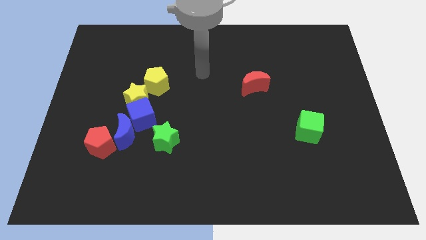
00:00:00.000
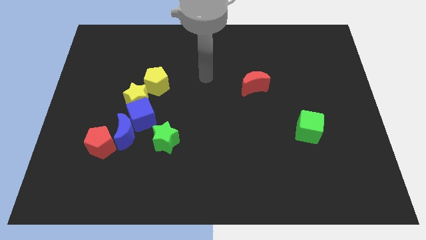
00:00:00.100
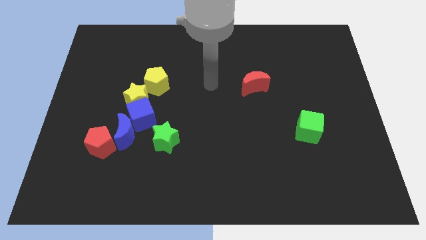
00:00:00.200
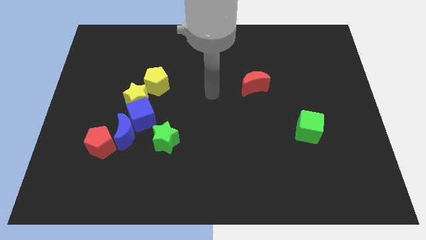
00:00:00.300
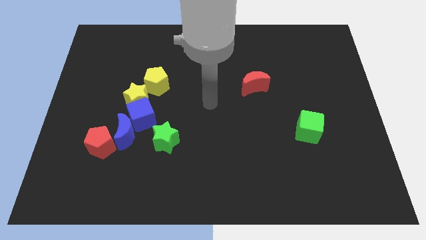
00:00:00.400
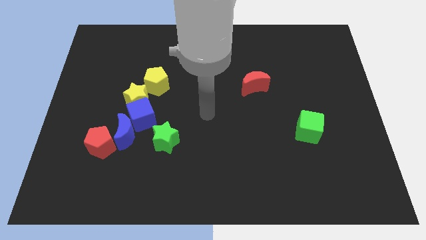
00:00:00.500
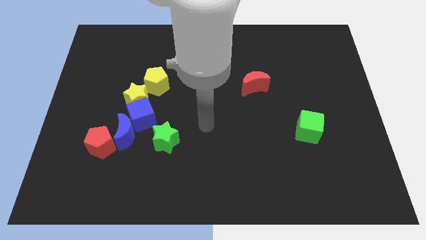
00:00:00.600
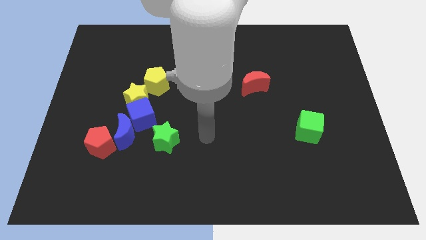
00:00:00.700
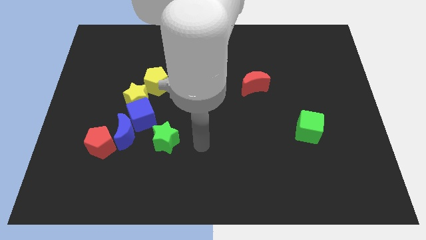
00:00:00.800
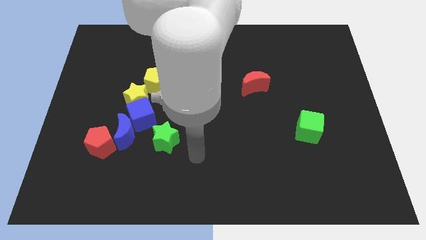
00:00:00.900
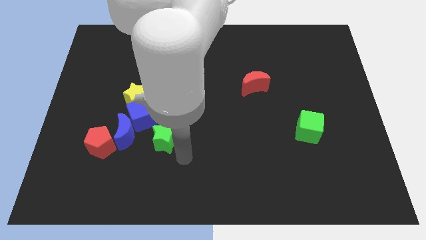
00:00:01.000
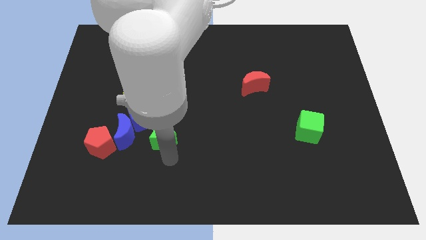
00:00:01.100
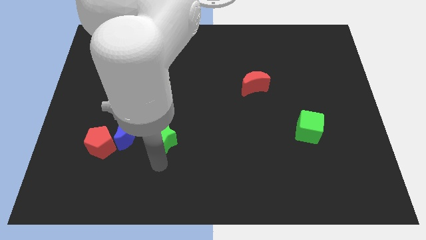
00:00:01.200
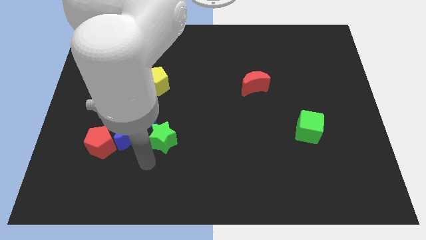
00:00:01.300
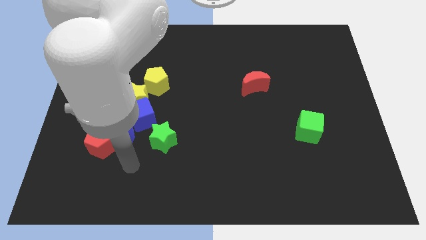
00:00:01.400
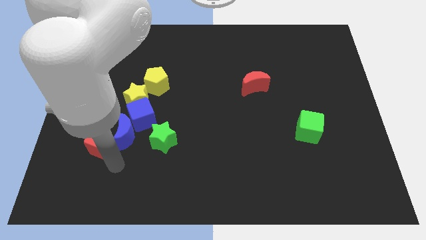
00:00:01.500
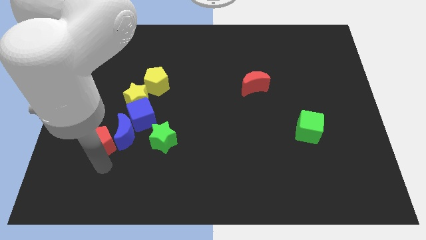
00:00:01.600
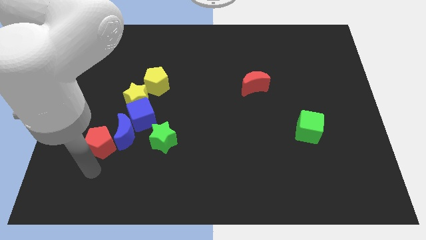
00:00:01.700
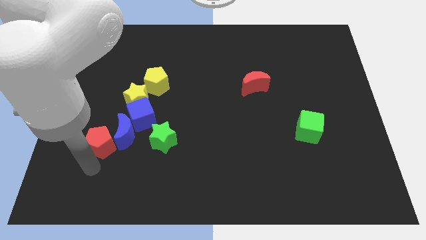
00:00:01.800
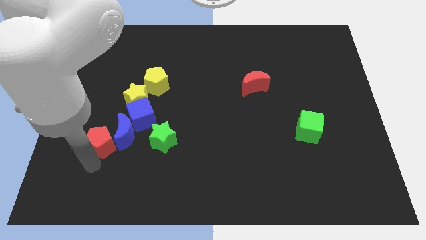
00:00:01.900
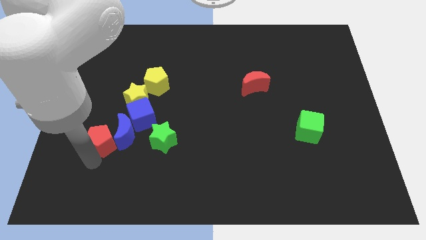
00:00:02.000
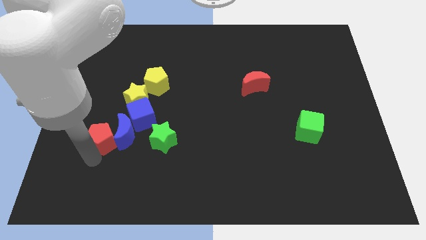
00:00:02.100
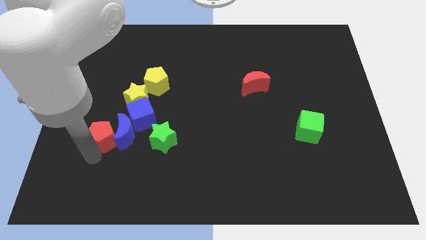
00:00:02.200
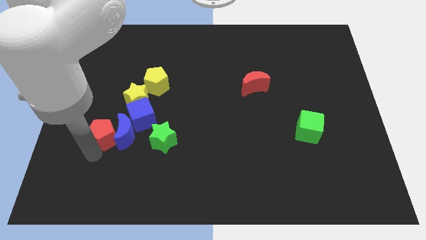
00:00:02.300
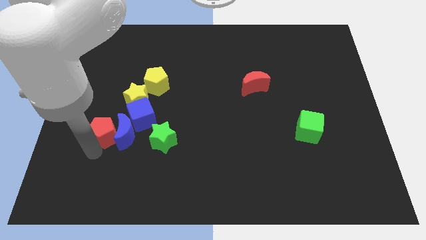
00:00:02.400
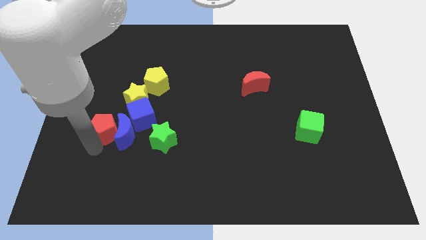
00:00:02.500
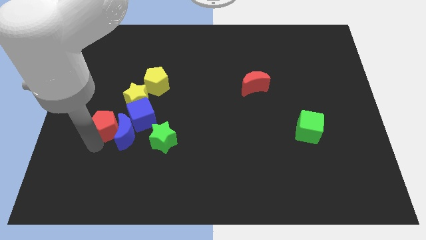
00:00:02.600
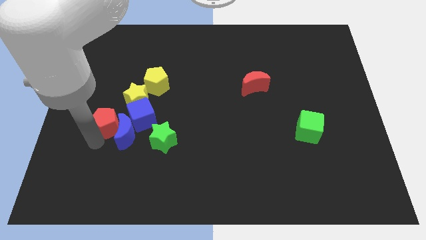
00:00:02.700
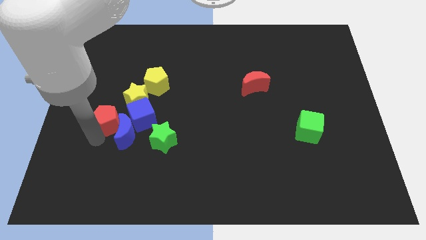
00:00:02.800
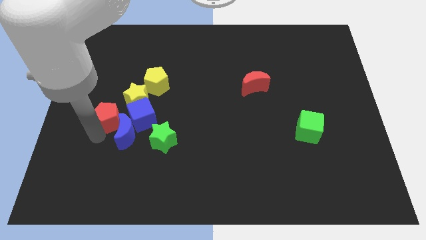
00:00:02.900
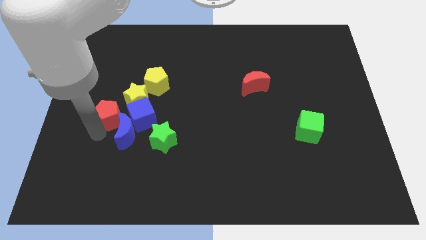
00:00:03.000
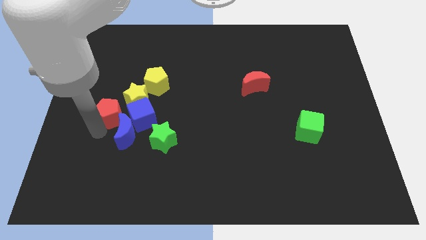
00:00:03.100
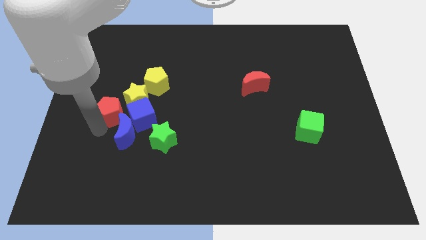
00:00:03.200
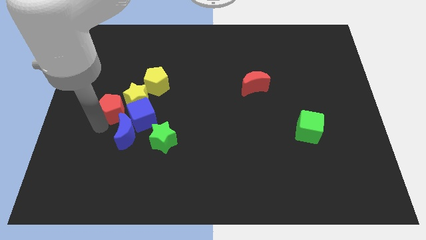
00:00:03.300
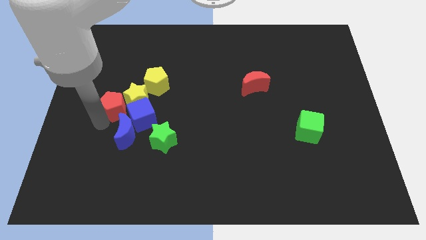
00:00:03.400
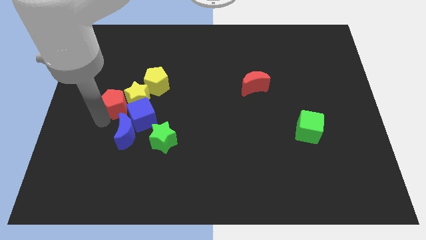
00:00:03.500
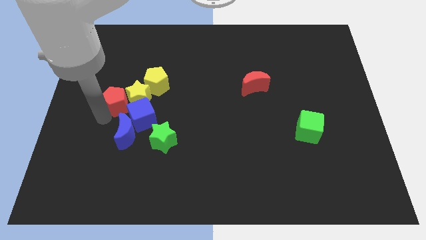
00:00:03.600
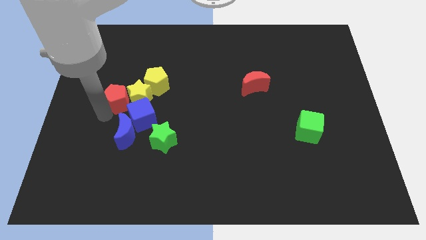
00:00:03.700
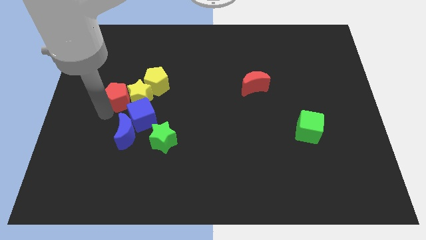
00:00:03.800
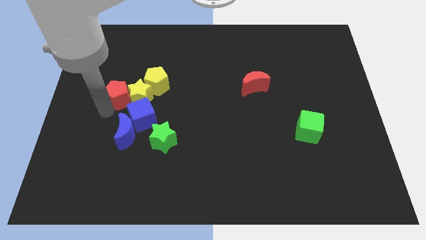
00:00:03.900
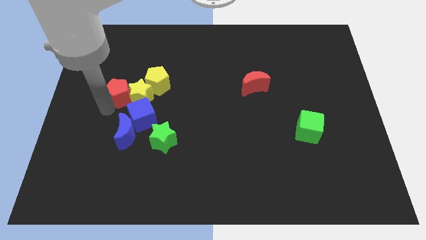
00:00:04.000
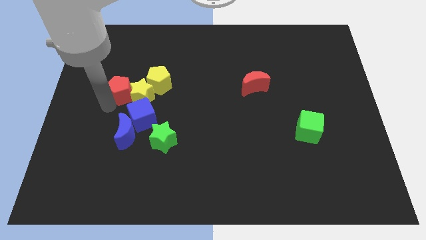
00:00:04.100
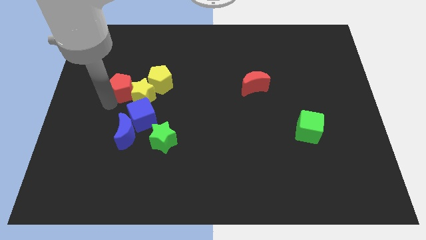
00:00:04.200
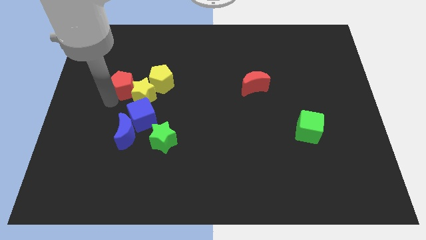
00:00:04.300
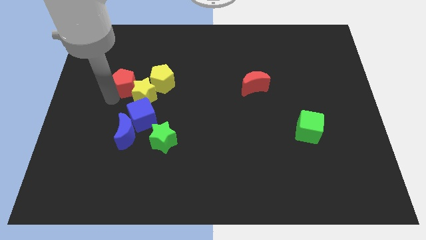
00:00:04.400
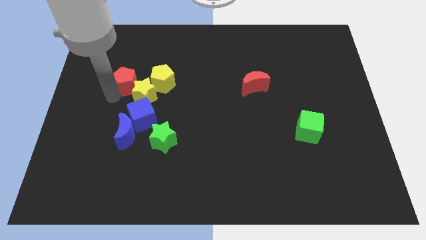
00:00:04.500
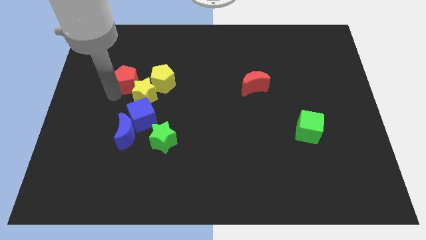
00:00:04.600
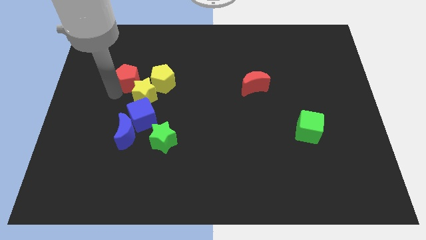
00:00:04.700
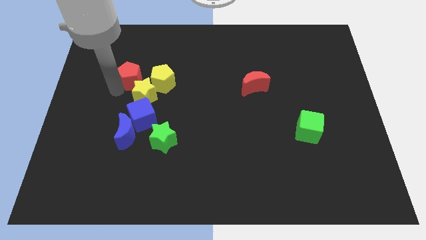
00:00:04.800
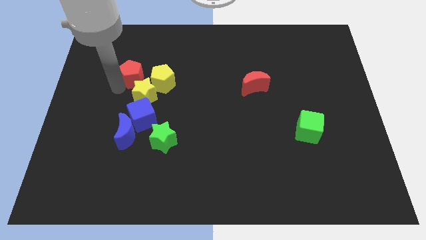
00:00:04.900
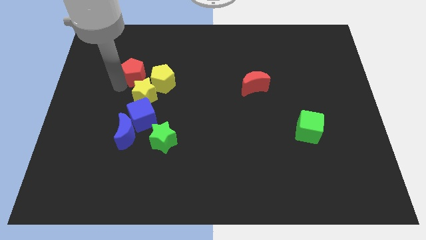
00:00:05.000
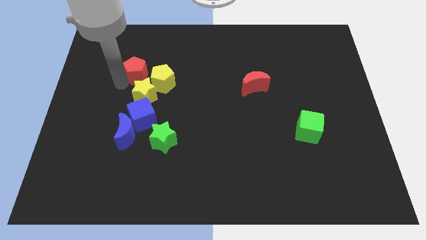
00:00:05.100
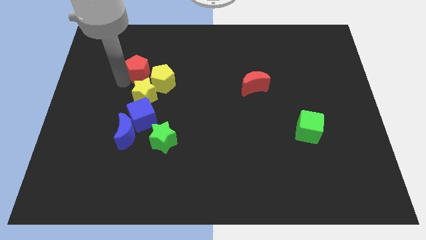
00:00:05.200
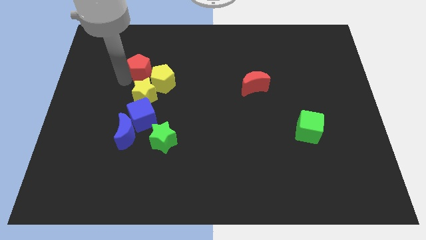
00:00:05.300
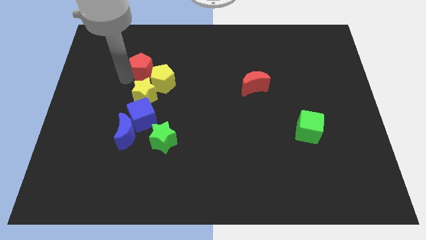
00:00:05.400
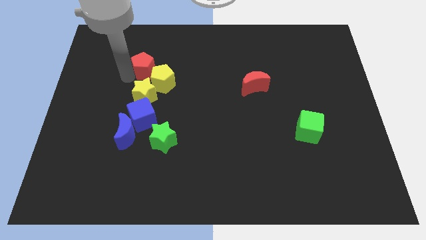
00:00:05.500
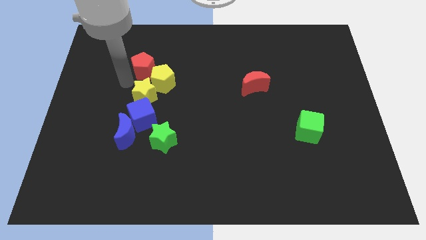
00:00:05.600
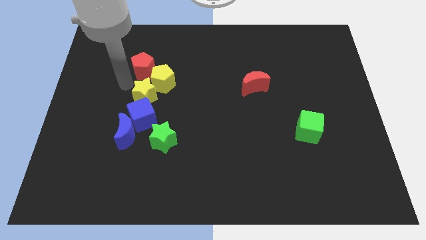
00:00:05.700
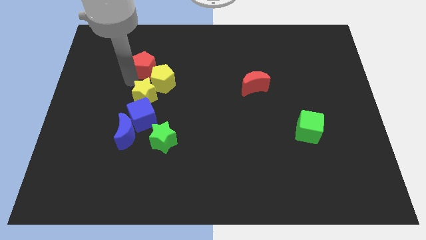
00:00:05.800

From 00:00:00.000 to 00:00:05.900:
slide the red pentagon above the yellow pentagon

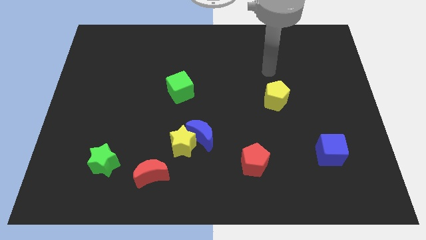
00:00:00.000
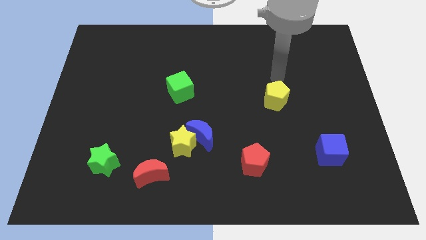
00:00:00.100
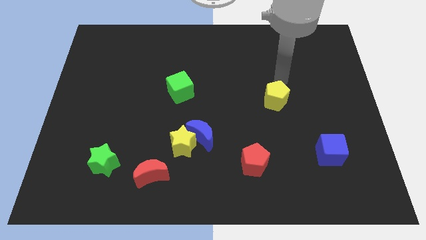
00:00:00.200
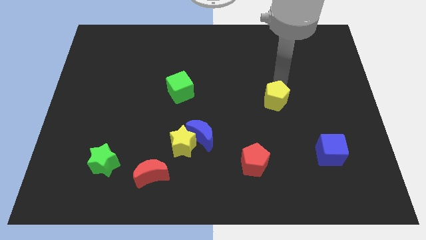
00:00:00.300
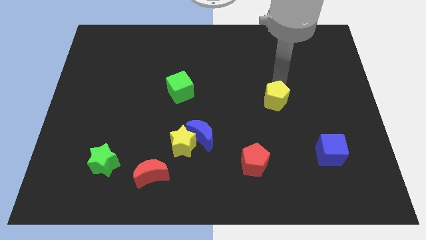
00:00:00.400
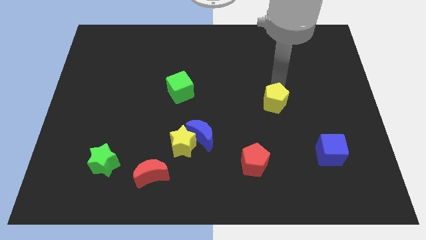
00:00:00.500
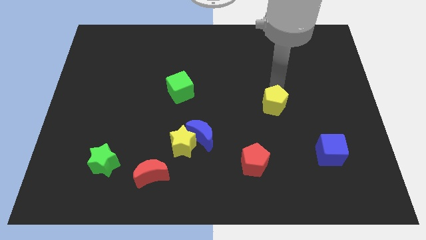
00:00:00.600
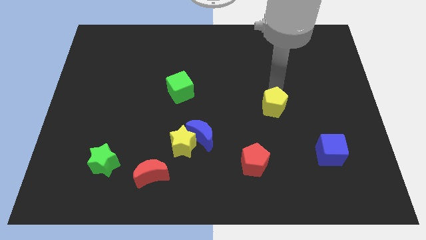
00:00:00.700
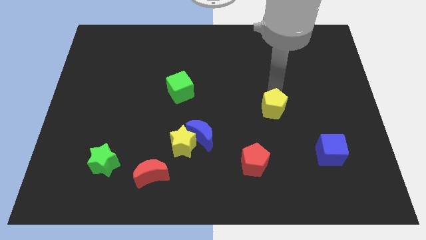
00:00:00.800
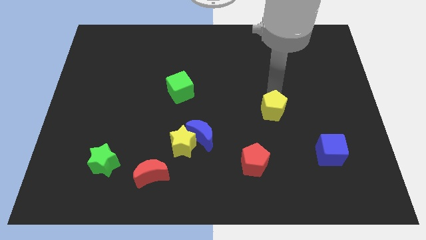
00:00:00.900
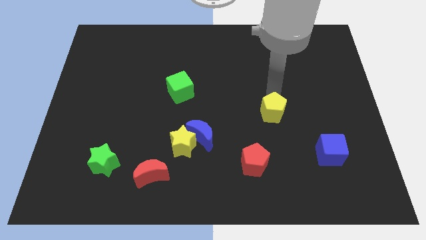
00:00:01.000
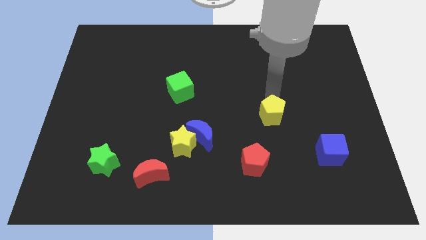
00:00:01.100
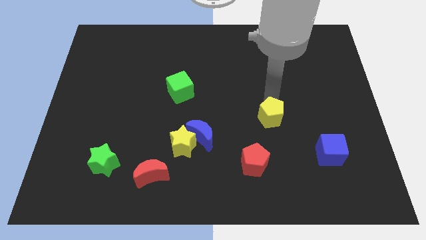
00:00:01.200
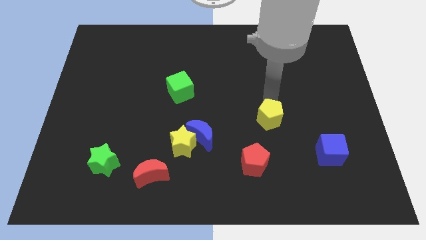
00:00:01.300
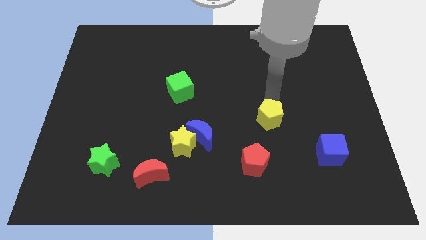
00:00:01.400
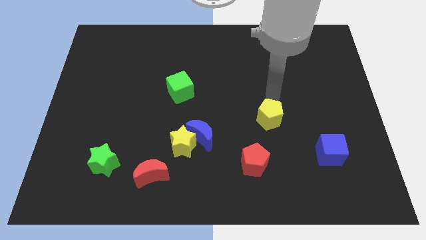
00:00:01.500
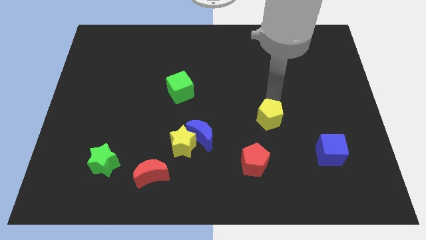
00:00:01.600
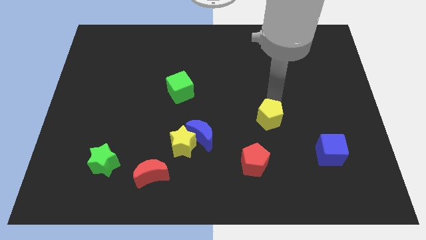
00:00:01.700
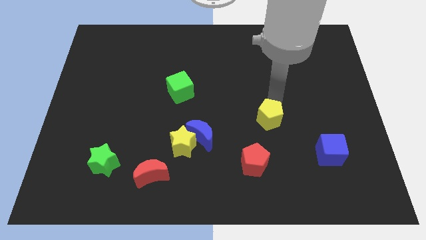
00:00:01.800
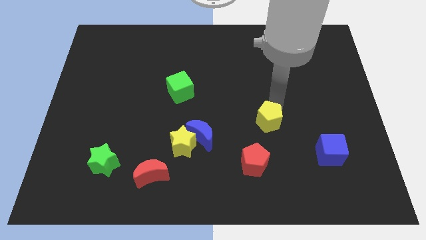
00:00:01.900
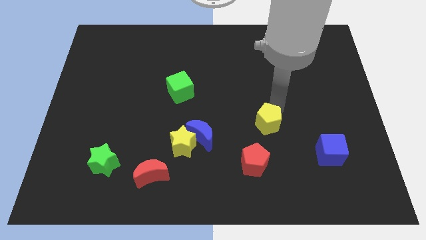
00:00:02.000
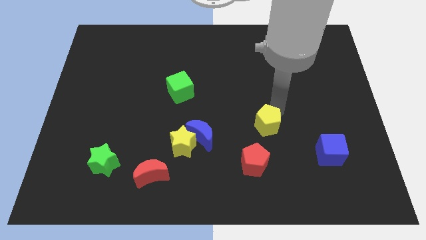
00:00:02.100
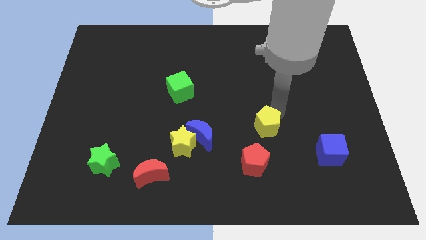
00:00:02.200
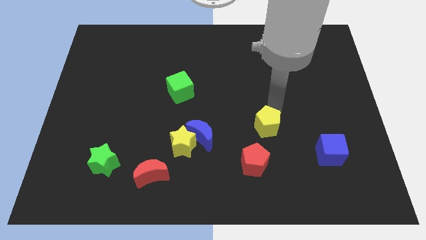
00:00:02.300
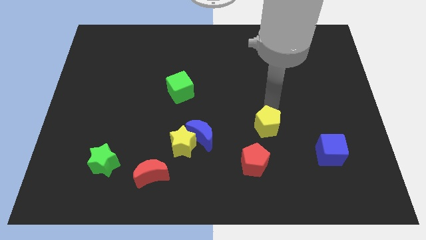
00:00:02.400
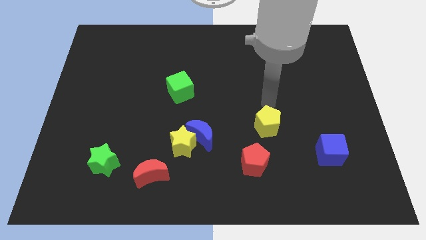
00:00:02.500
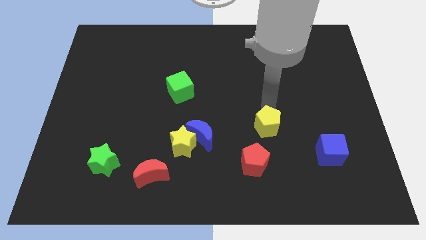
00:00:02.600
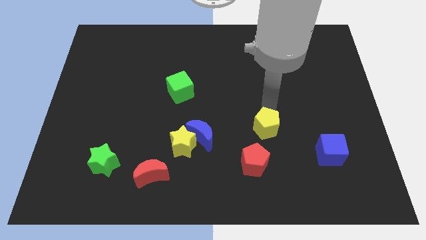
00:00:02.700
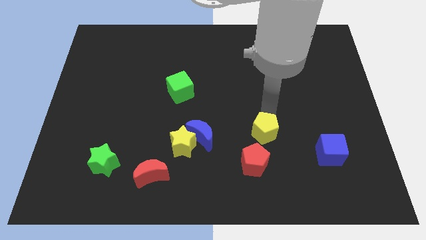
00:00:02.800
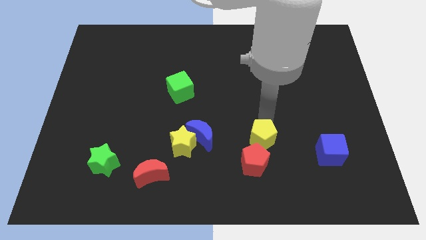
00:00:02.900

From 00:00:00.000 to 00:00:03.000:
push the yellow pentagon left of the blue cube
